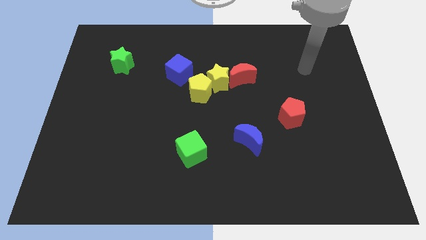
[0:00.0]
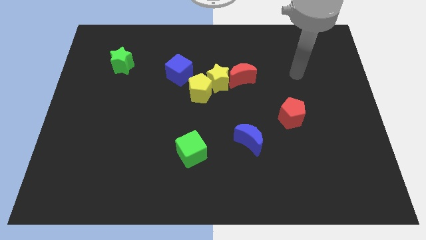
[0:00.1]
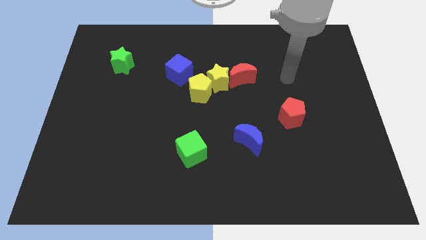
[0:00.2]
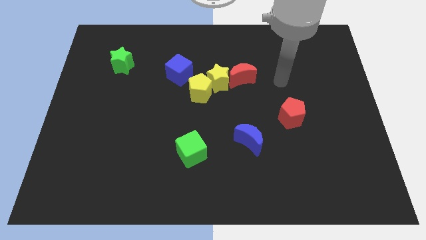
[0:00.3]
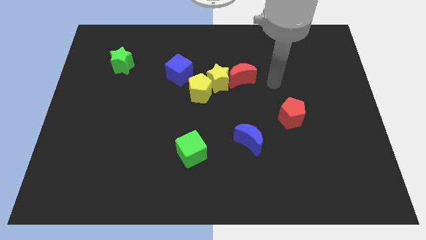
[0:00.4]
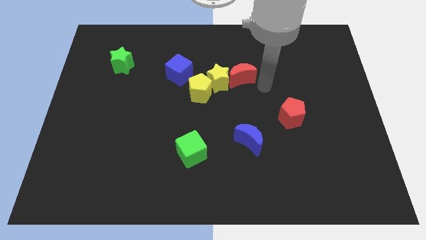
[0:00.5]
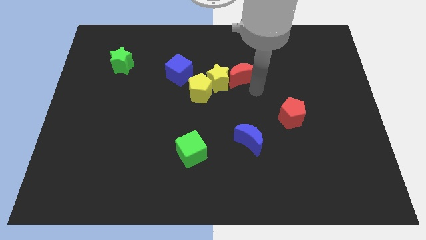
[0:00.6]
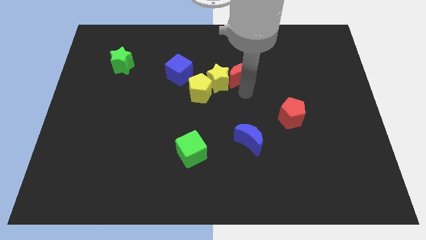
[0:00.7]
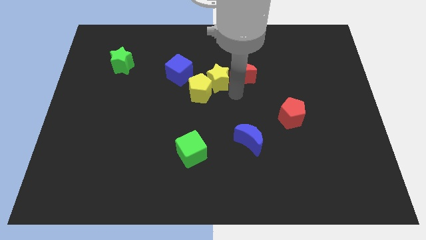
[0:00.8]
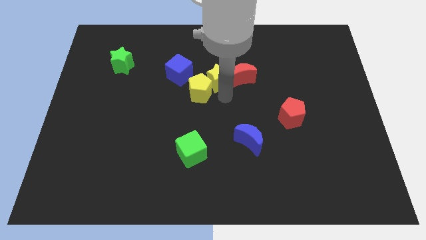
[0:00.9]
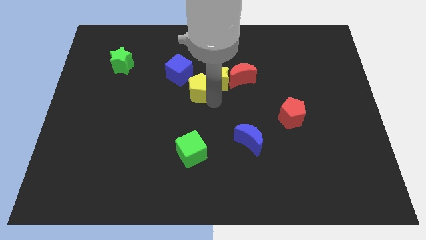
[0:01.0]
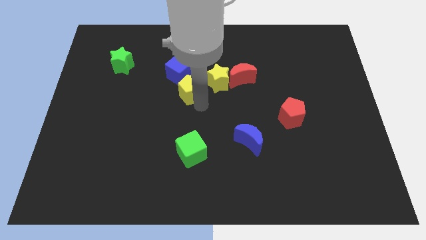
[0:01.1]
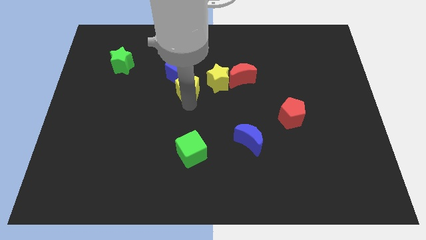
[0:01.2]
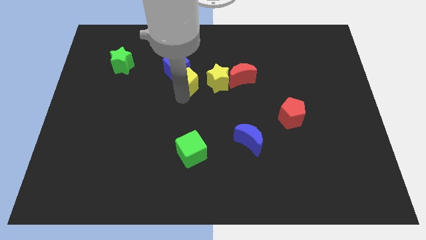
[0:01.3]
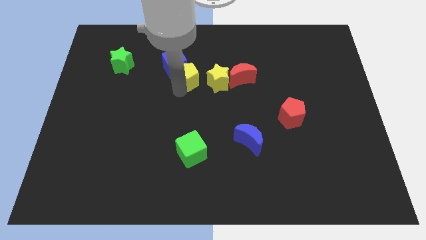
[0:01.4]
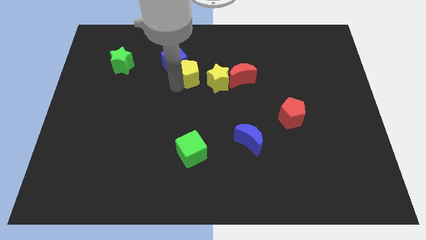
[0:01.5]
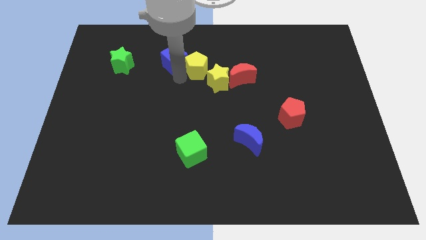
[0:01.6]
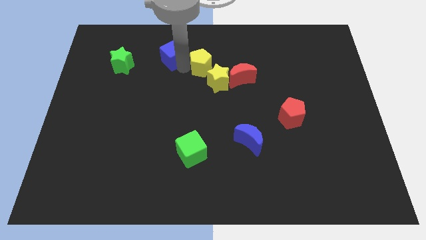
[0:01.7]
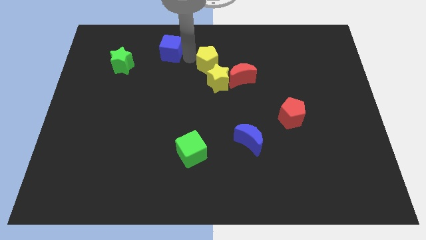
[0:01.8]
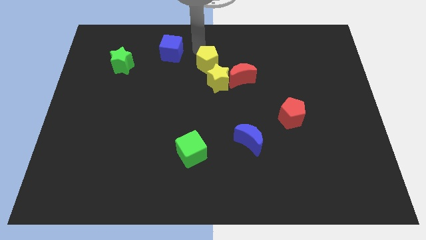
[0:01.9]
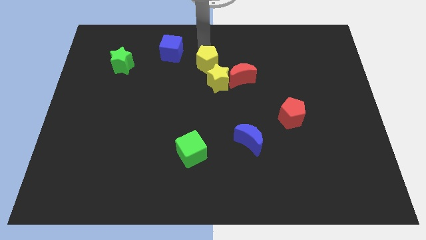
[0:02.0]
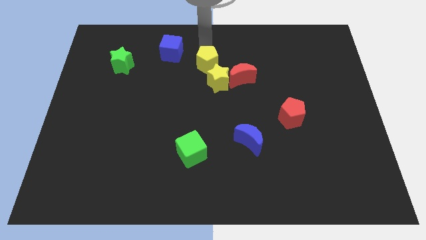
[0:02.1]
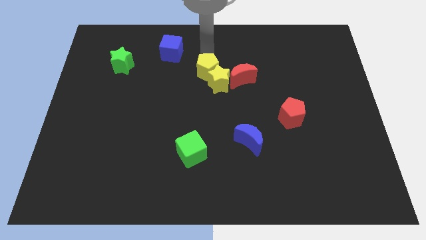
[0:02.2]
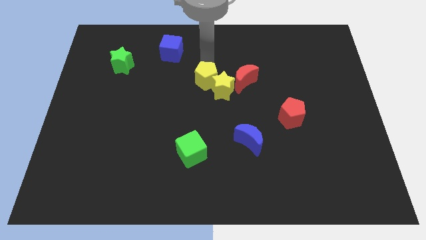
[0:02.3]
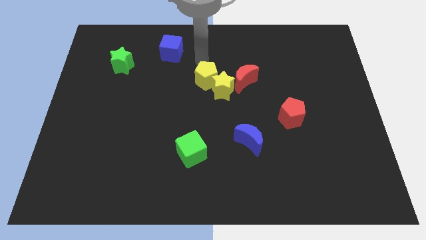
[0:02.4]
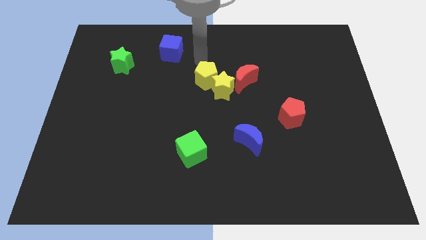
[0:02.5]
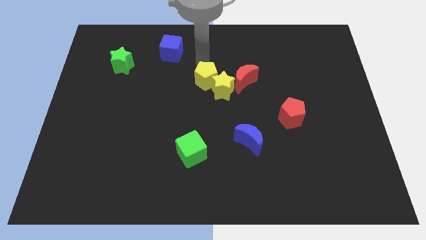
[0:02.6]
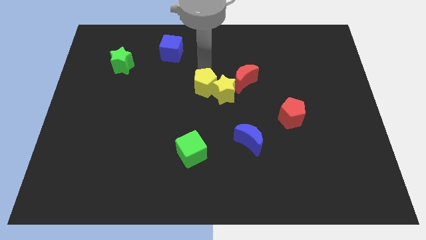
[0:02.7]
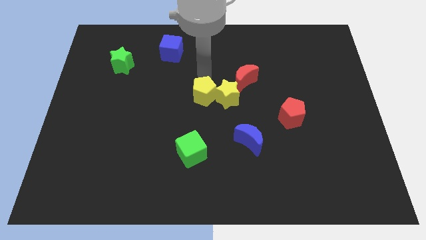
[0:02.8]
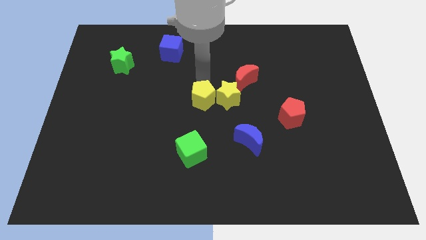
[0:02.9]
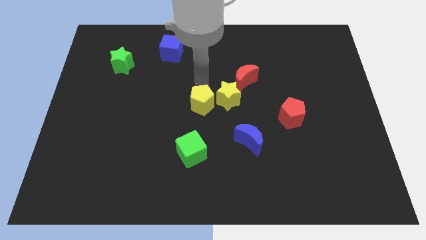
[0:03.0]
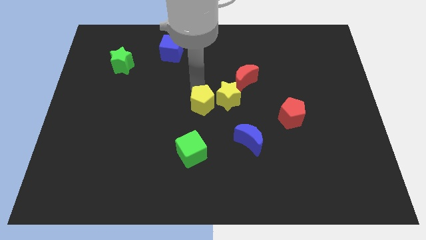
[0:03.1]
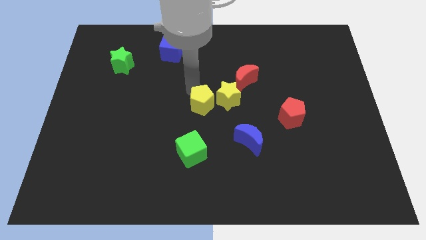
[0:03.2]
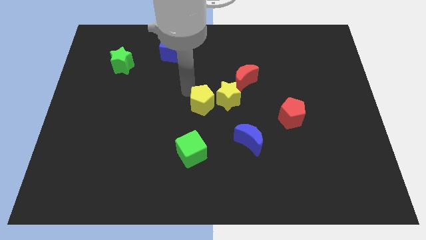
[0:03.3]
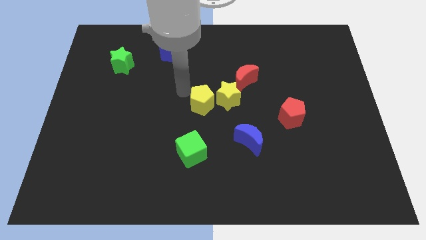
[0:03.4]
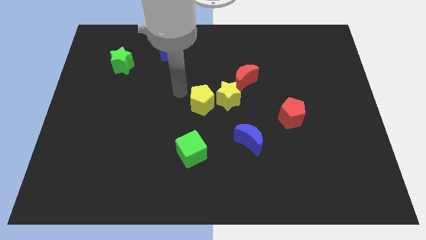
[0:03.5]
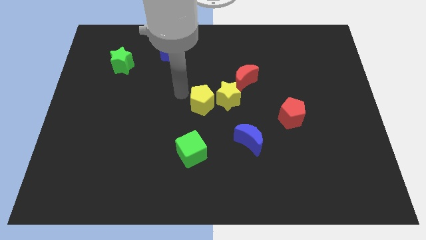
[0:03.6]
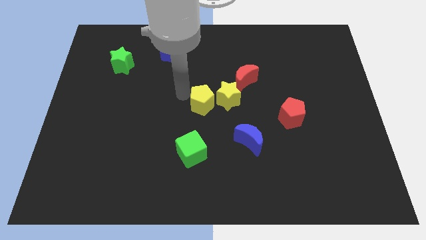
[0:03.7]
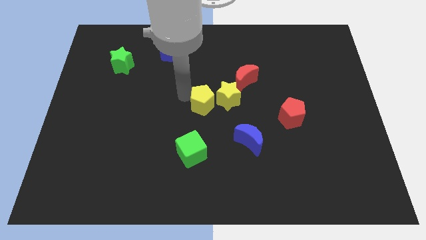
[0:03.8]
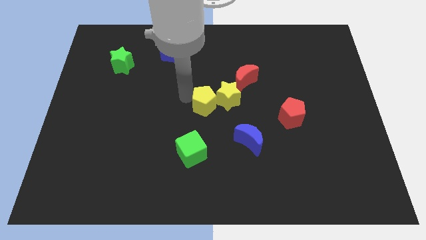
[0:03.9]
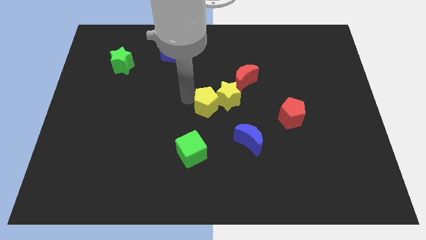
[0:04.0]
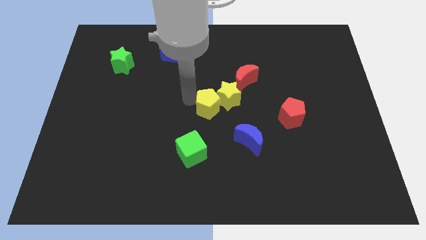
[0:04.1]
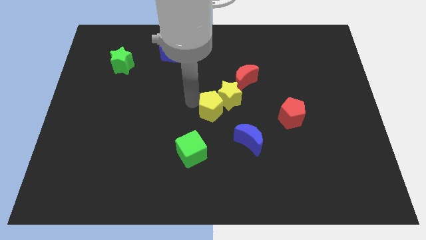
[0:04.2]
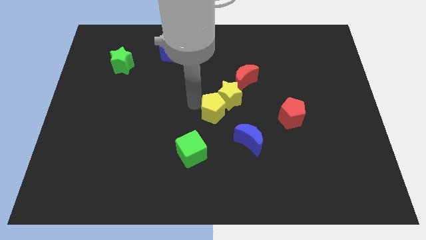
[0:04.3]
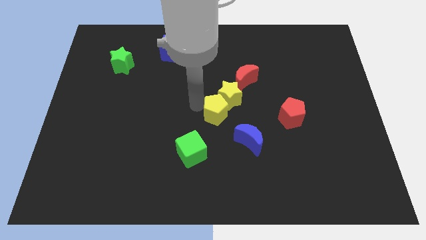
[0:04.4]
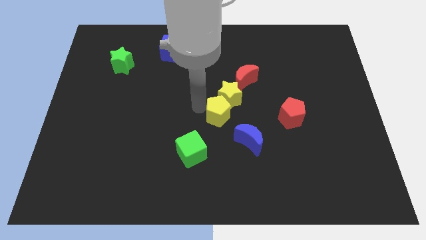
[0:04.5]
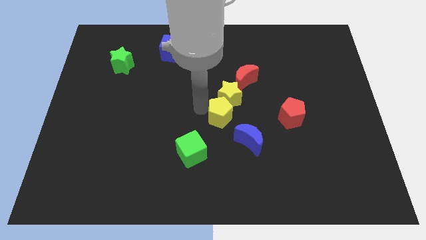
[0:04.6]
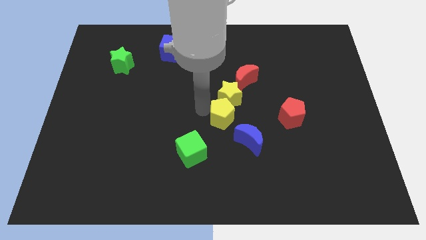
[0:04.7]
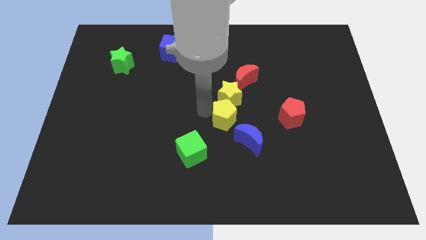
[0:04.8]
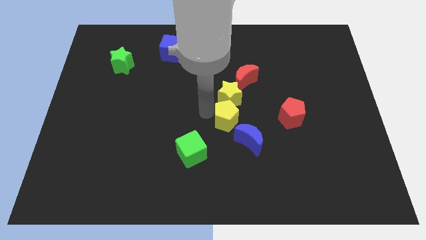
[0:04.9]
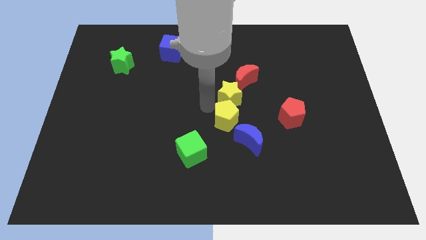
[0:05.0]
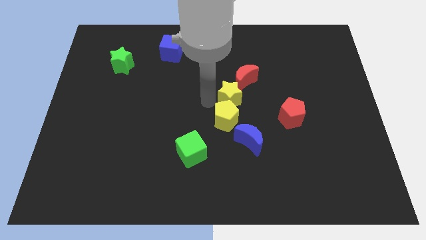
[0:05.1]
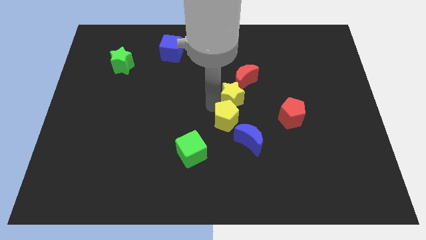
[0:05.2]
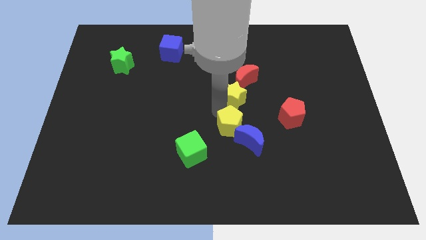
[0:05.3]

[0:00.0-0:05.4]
slide the yellow pentagon to the blue moon

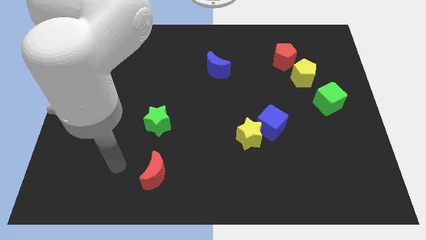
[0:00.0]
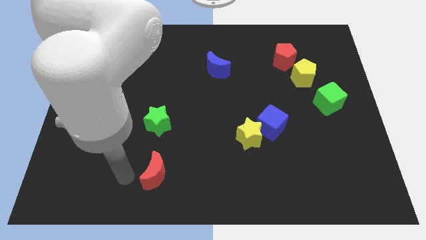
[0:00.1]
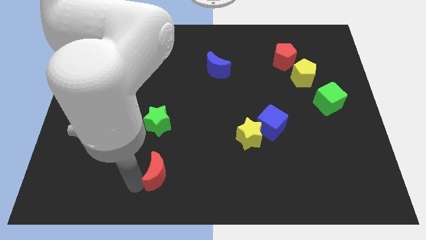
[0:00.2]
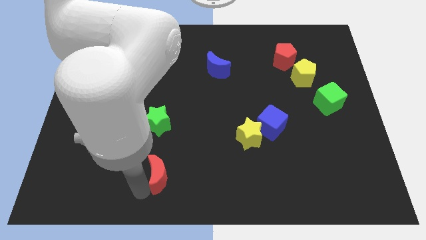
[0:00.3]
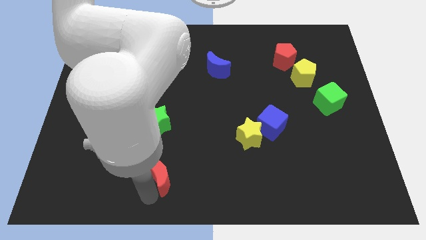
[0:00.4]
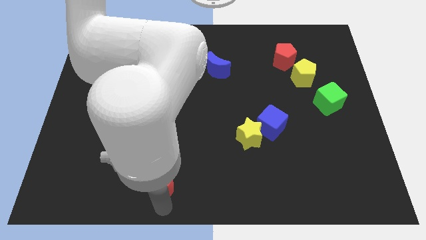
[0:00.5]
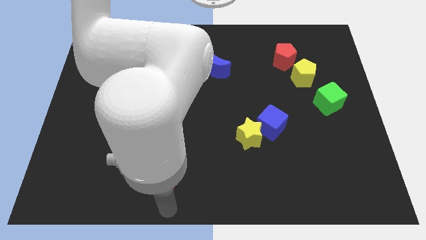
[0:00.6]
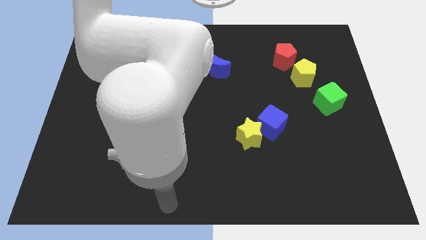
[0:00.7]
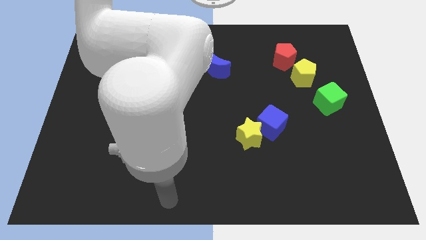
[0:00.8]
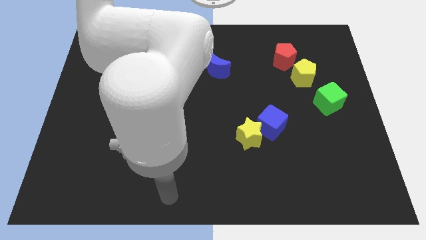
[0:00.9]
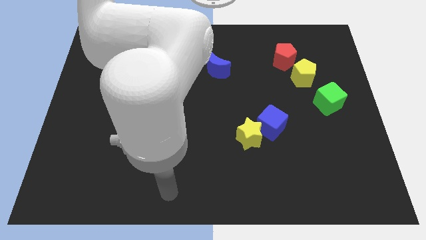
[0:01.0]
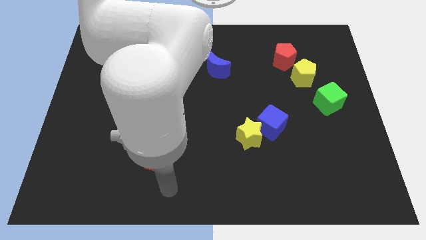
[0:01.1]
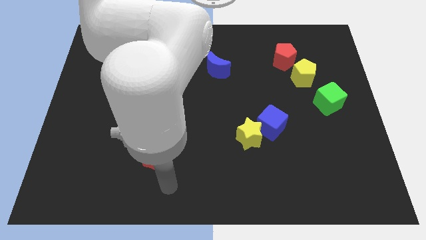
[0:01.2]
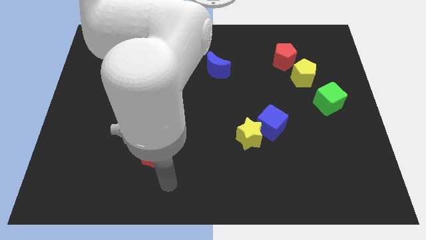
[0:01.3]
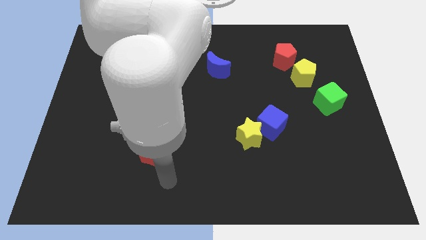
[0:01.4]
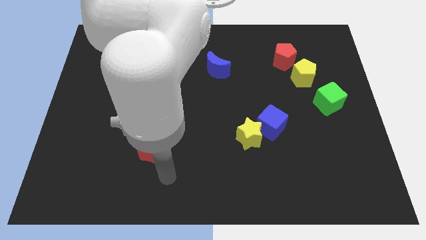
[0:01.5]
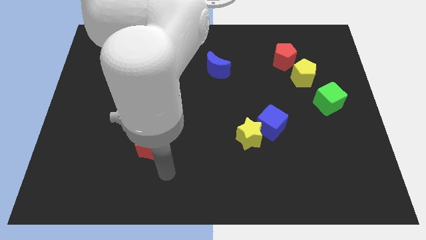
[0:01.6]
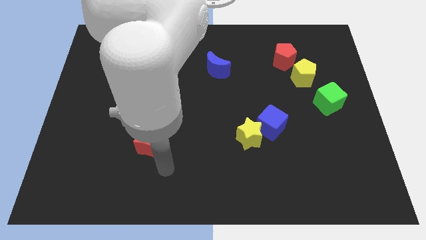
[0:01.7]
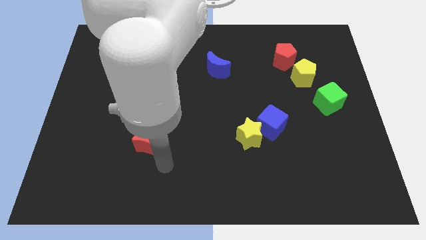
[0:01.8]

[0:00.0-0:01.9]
push the red moon next to the green star
